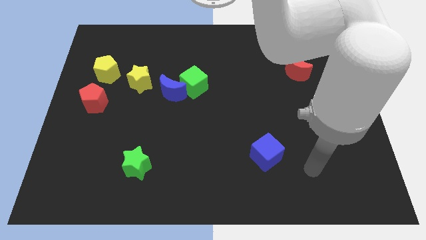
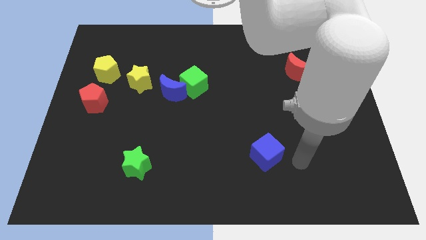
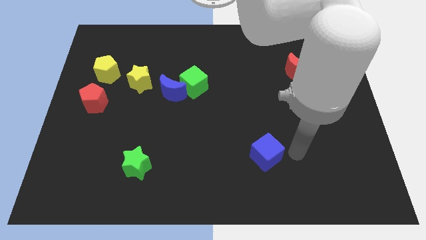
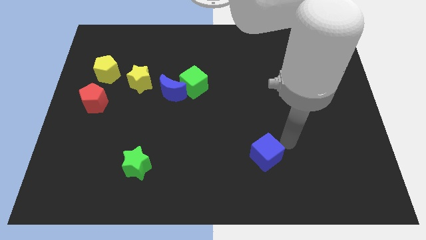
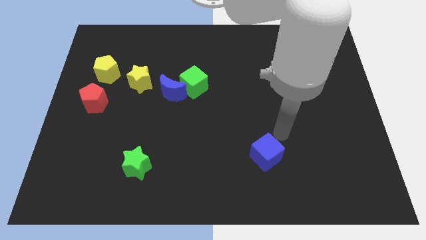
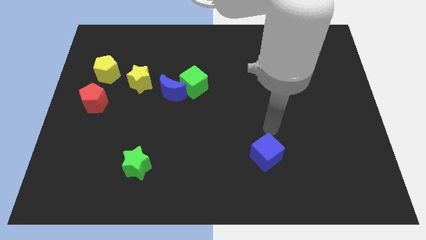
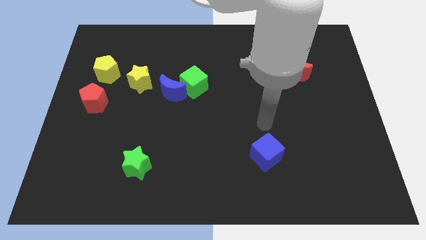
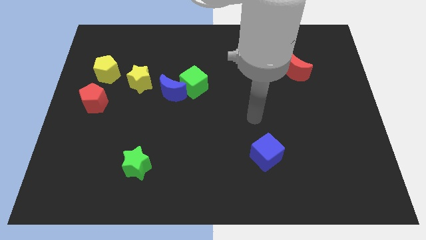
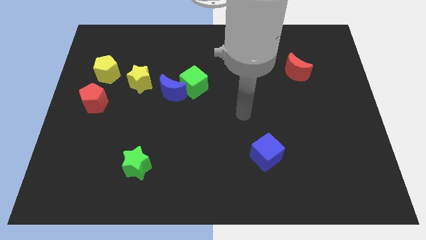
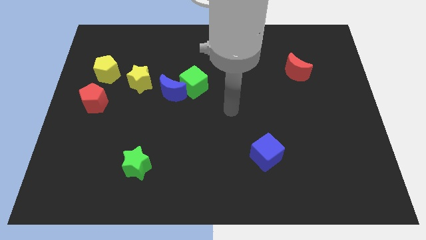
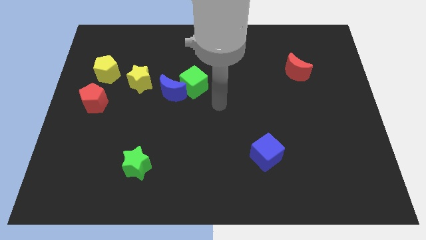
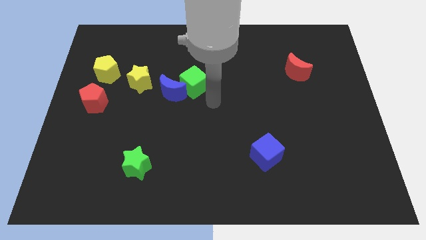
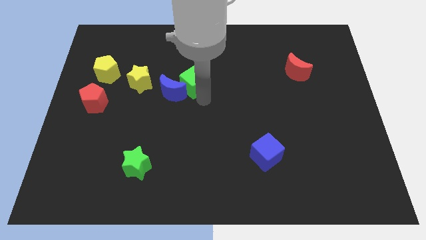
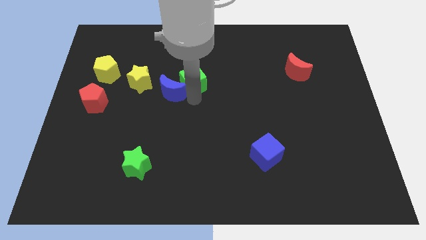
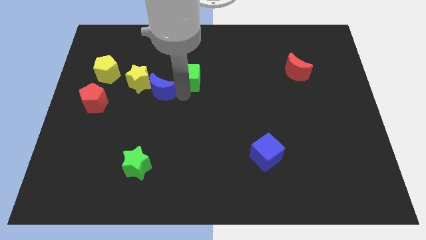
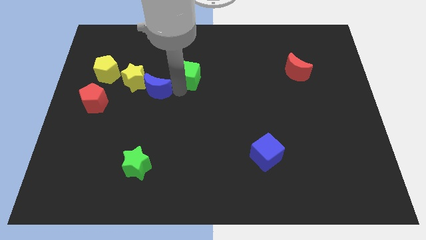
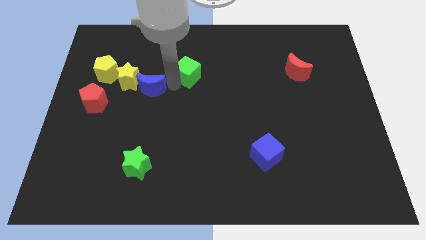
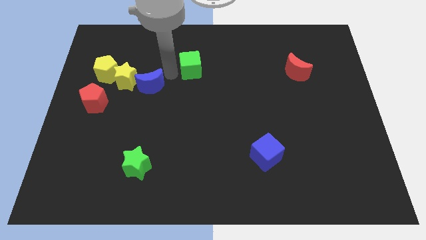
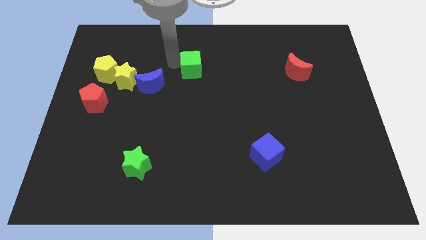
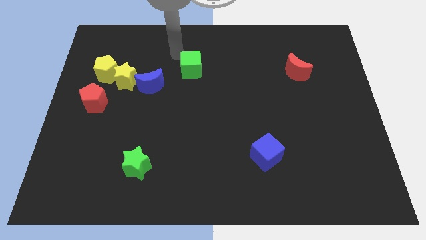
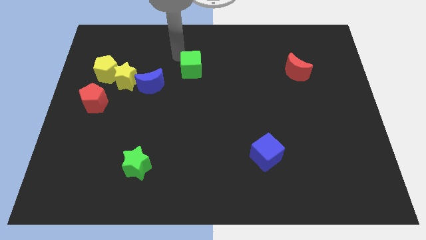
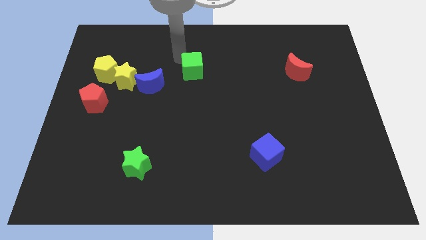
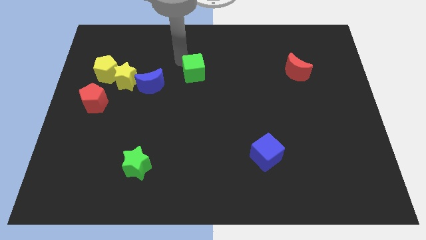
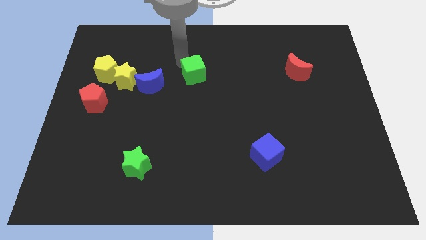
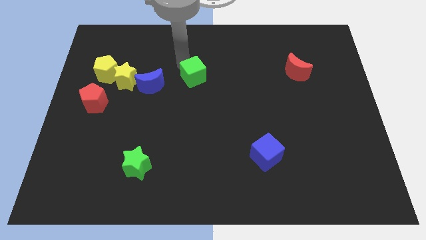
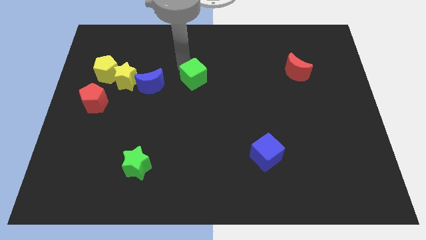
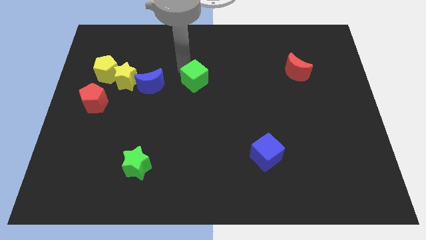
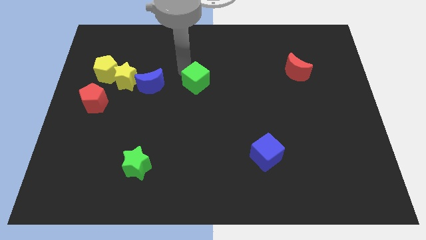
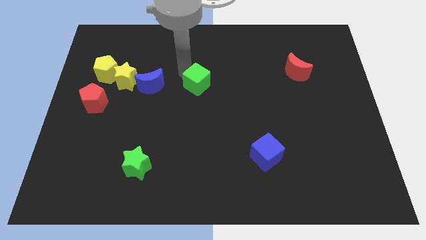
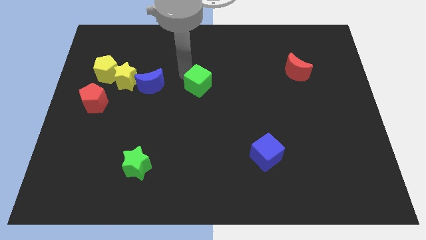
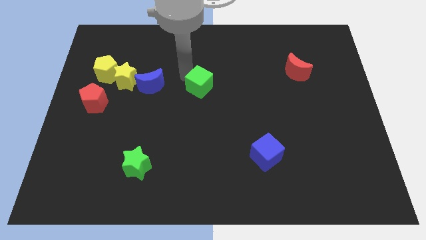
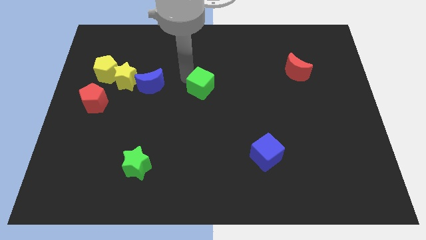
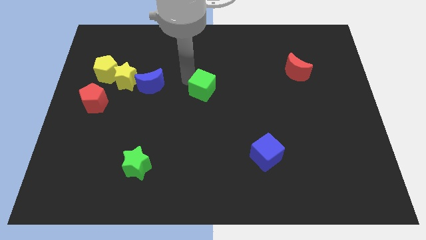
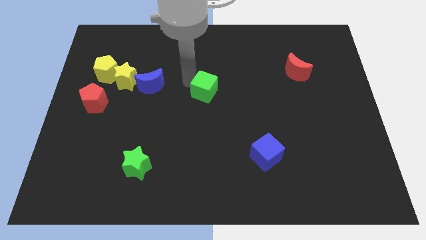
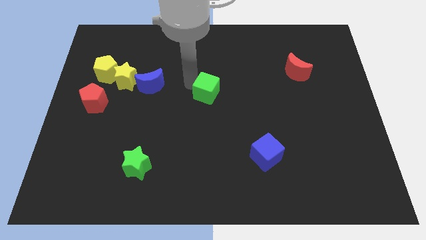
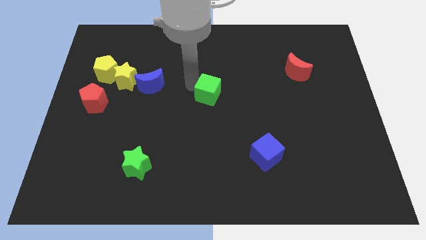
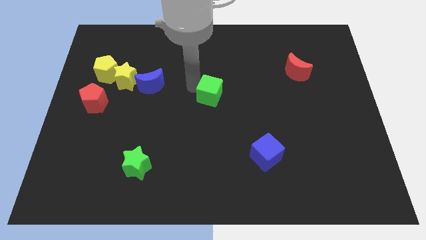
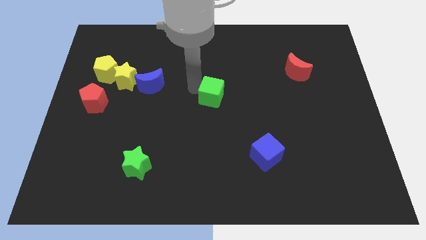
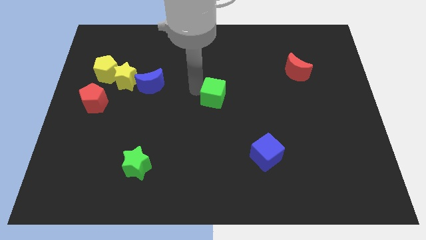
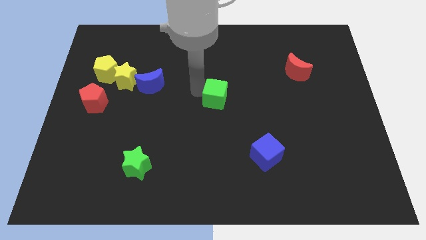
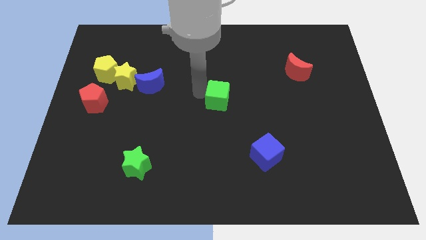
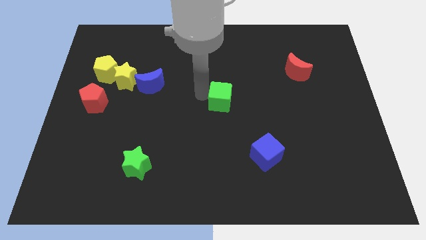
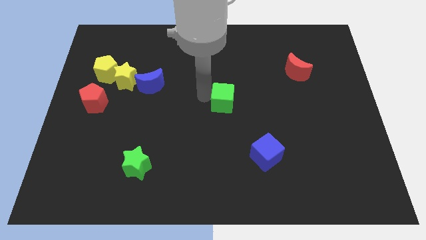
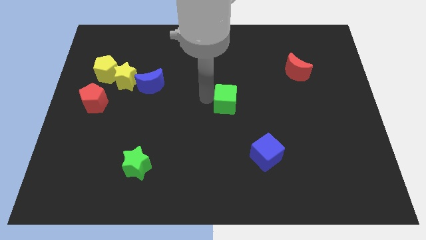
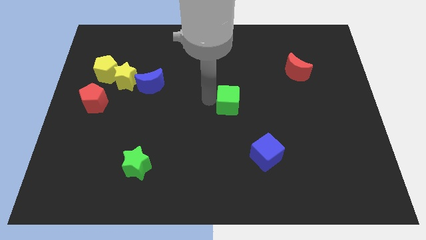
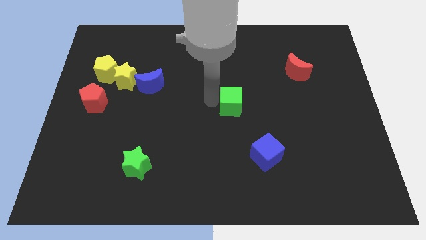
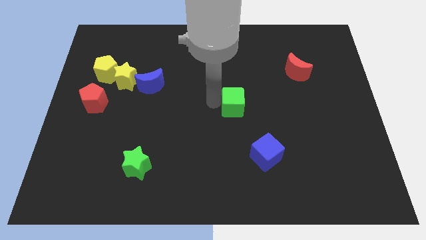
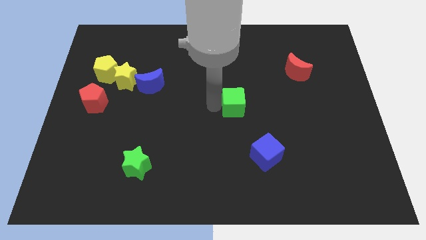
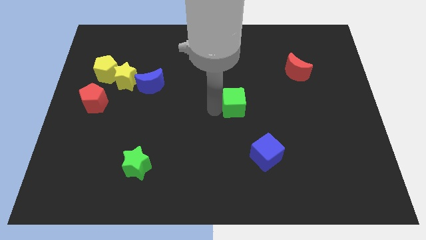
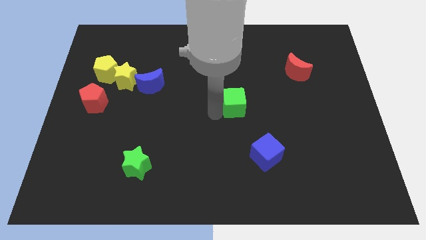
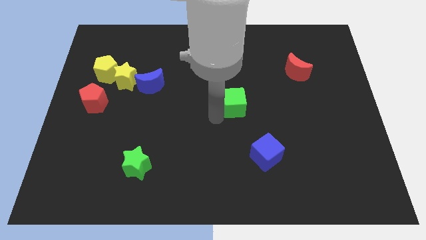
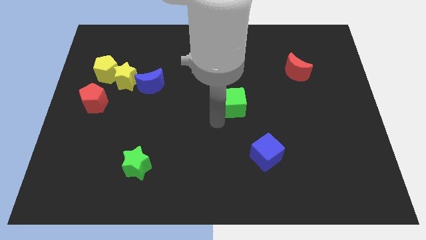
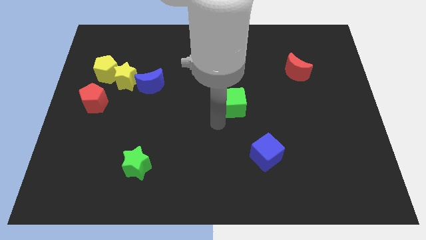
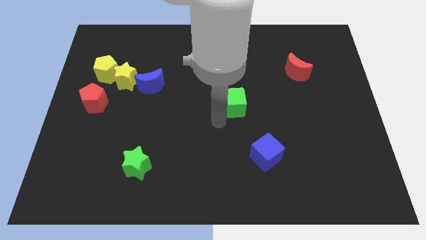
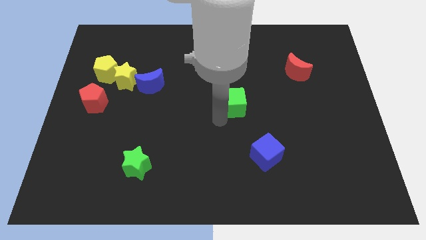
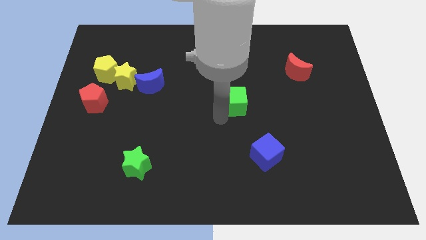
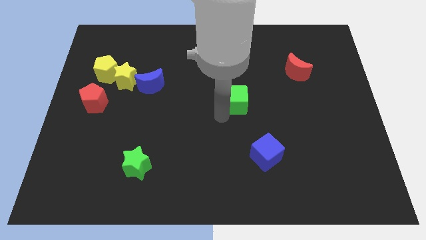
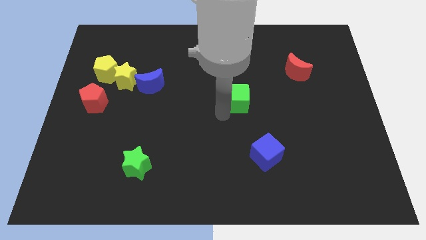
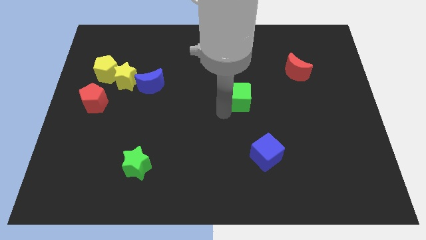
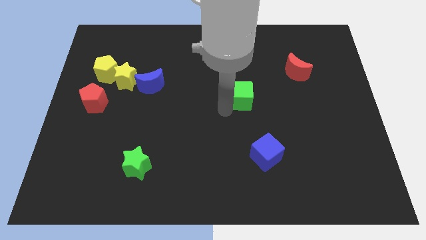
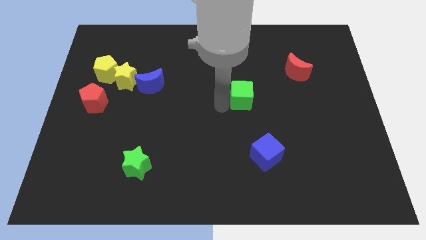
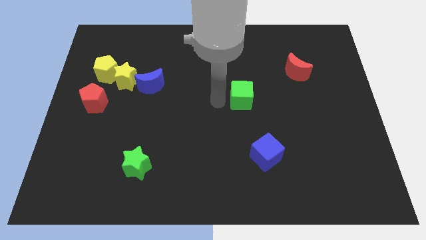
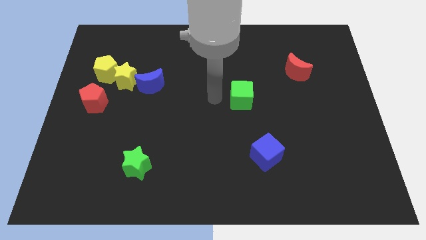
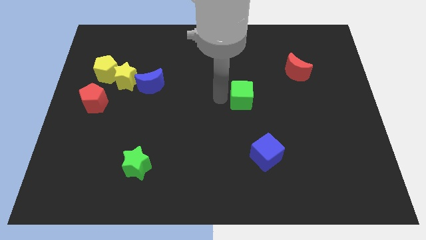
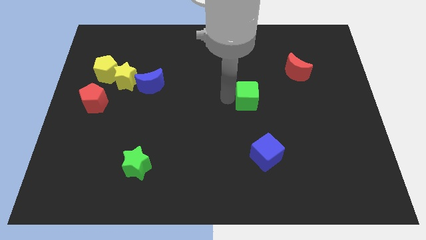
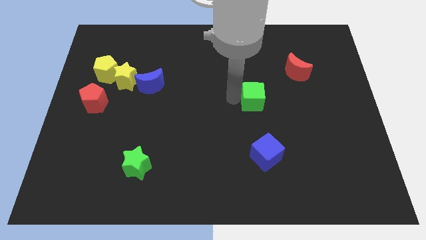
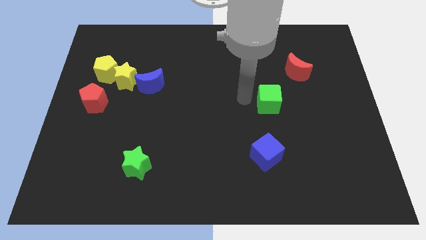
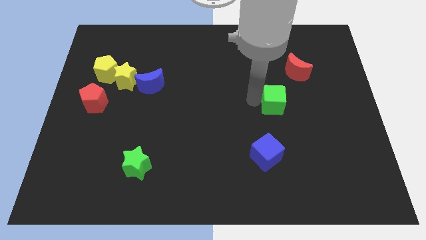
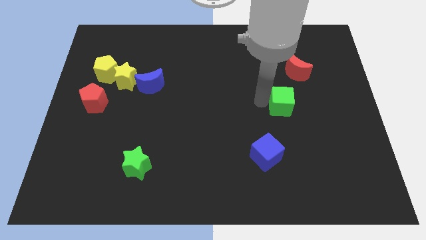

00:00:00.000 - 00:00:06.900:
put the green cube below the red moon

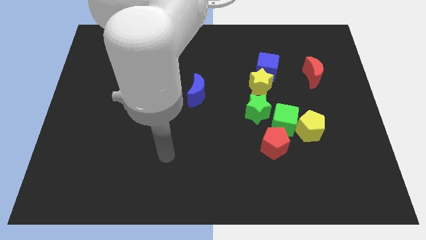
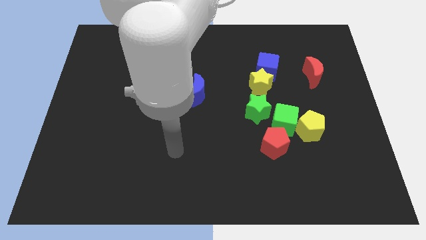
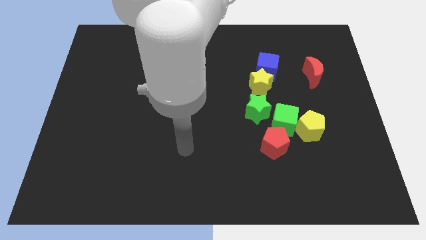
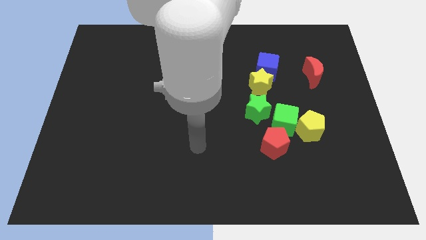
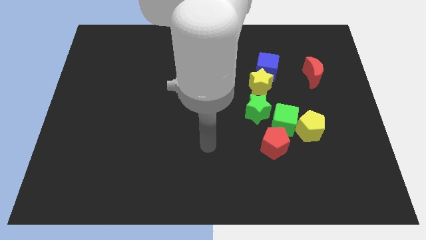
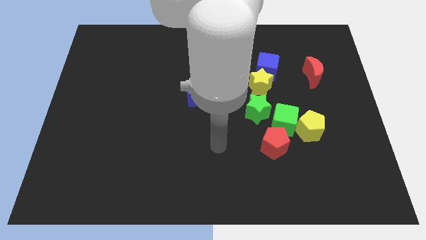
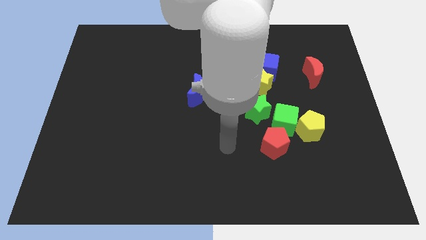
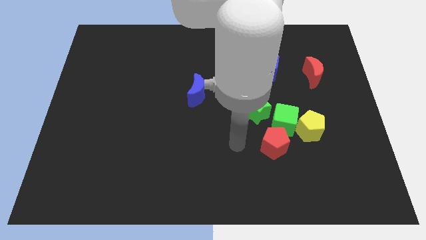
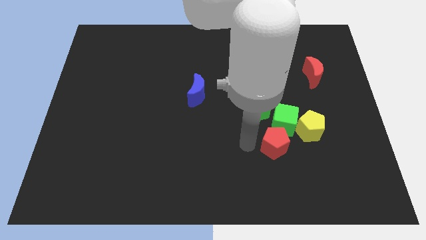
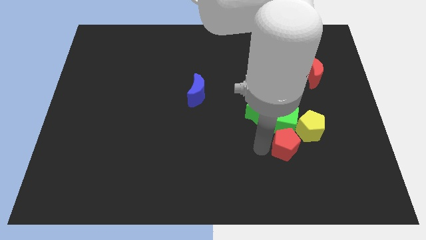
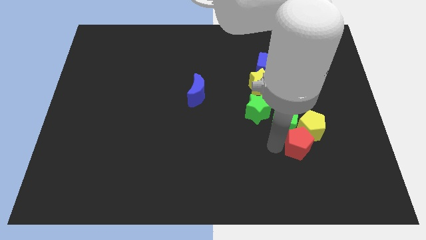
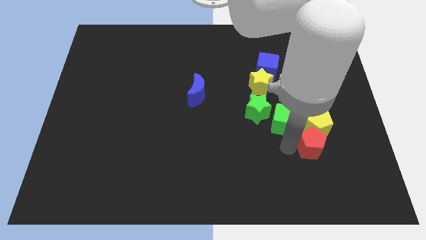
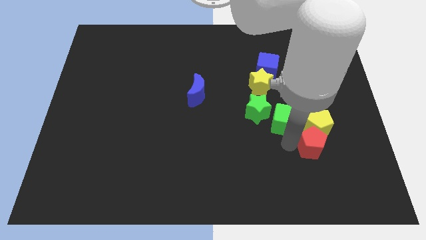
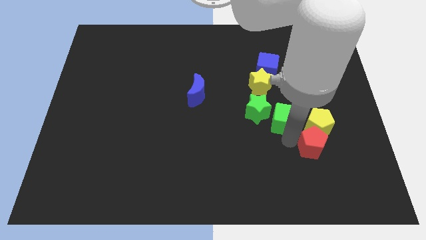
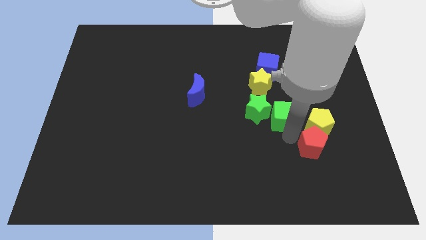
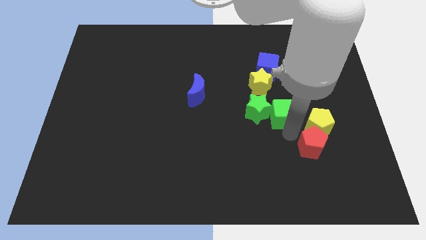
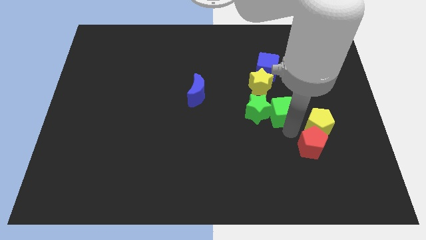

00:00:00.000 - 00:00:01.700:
put the green cube to the top right side of the green star
